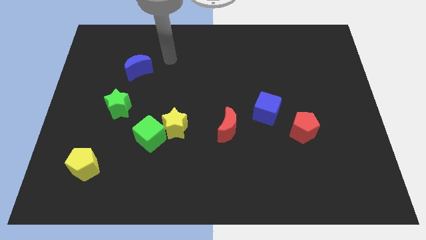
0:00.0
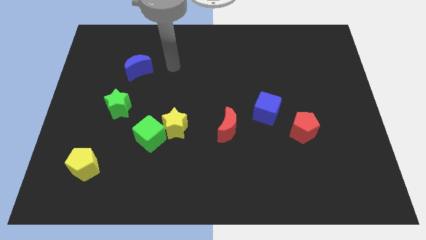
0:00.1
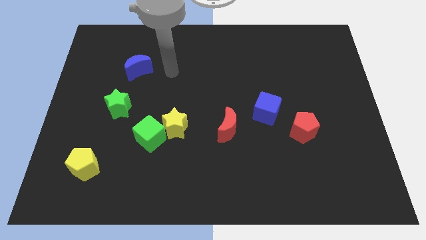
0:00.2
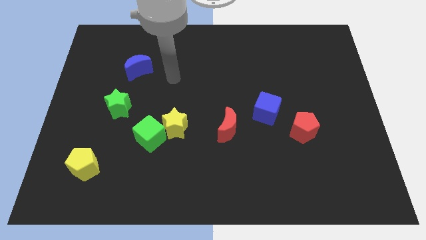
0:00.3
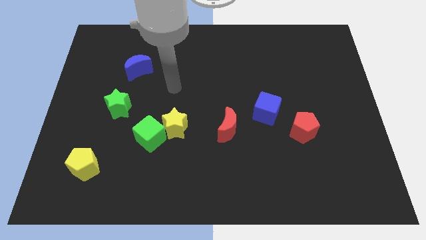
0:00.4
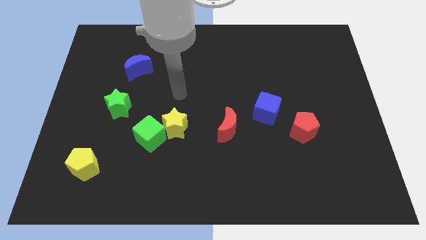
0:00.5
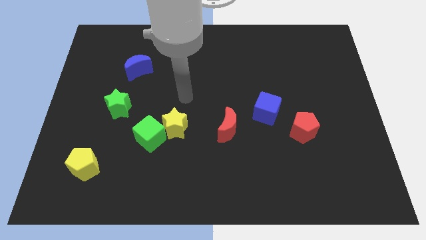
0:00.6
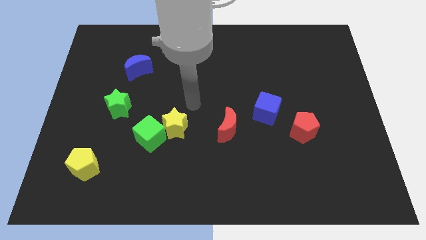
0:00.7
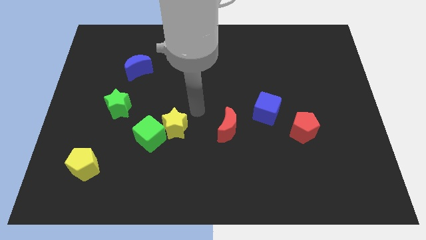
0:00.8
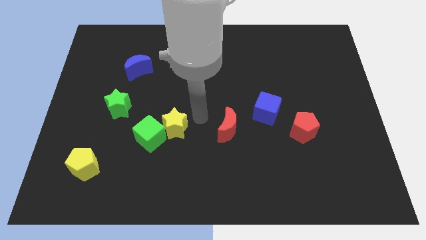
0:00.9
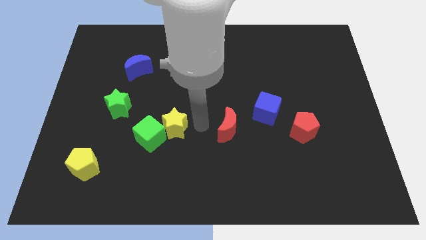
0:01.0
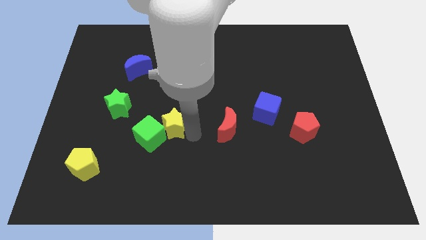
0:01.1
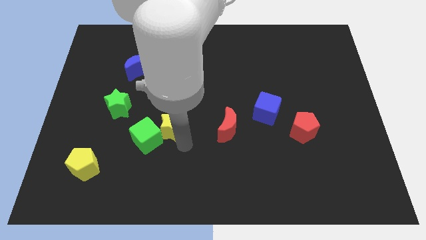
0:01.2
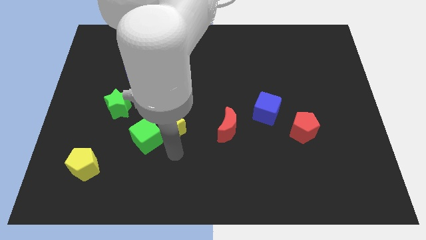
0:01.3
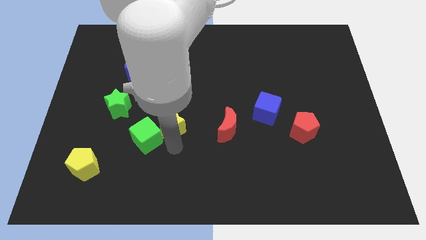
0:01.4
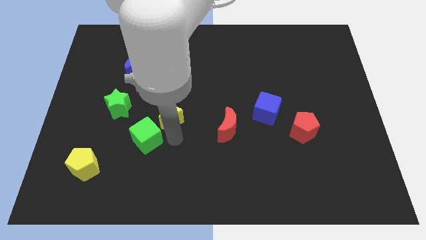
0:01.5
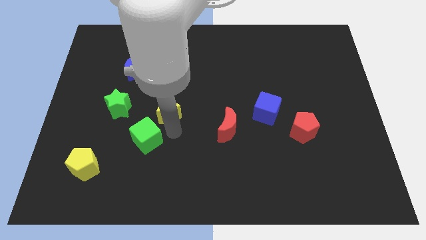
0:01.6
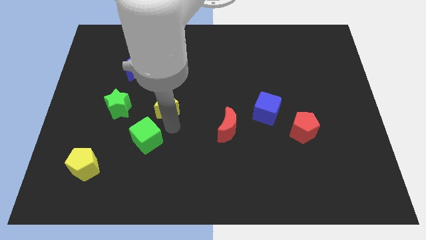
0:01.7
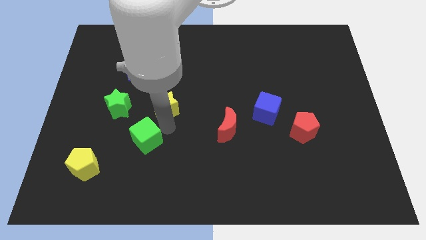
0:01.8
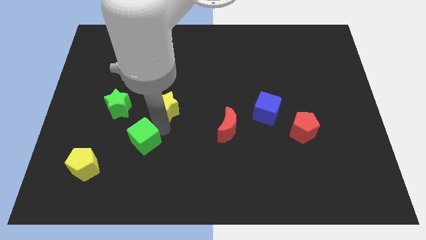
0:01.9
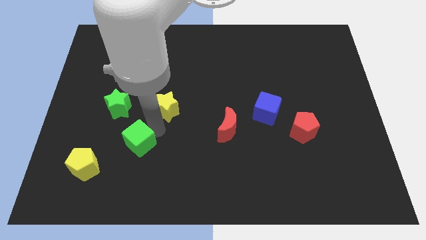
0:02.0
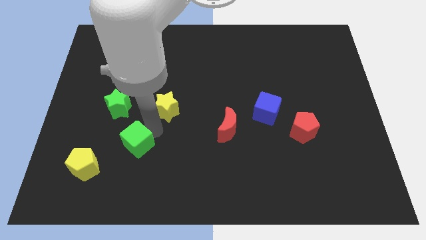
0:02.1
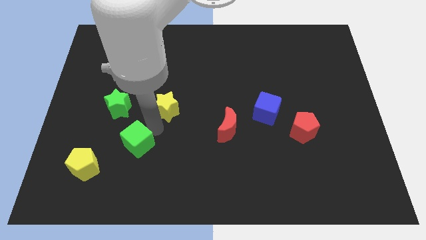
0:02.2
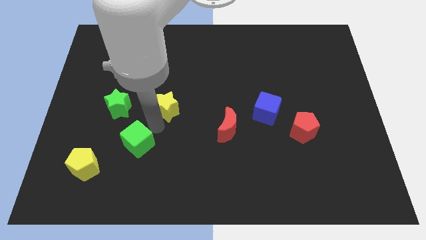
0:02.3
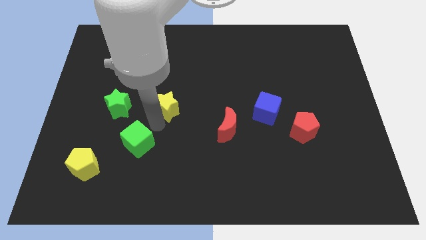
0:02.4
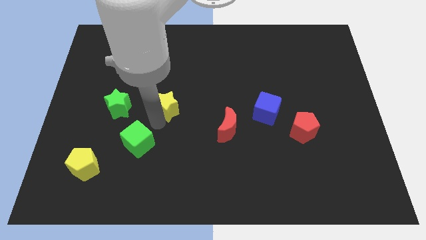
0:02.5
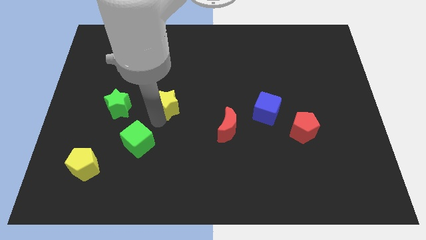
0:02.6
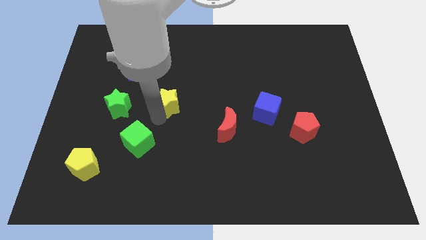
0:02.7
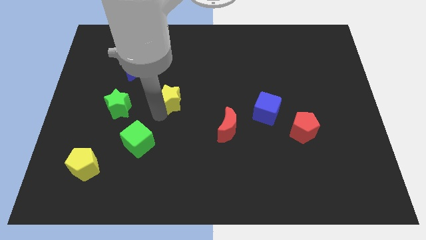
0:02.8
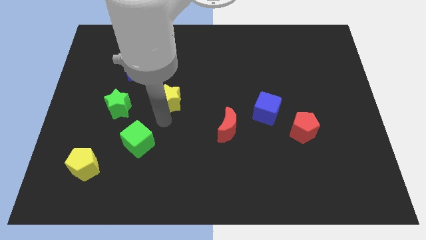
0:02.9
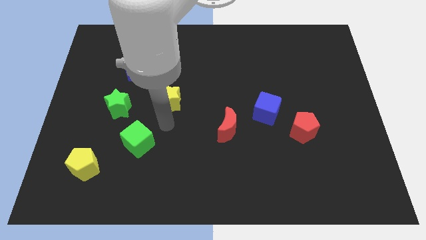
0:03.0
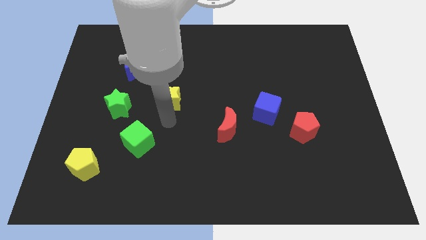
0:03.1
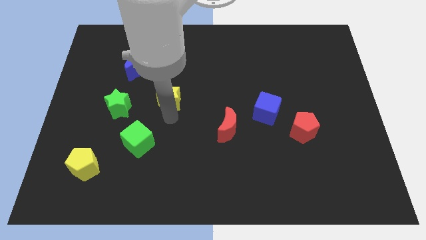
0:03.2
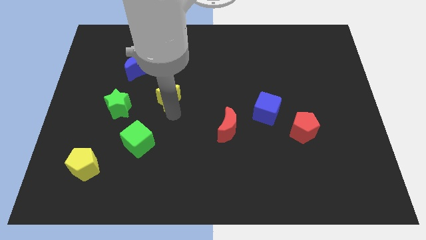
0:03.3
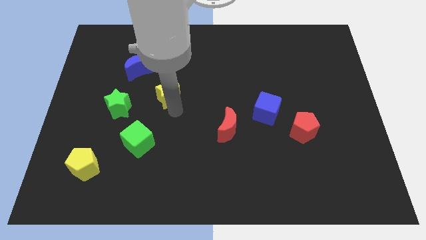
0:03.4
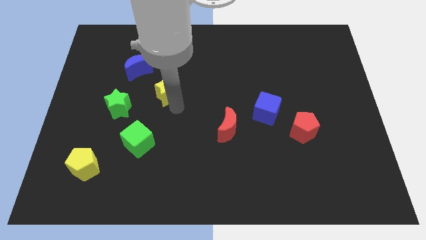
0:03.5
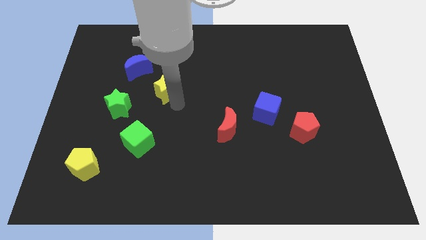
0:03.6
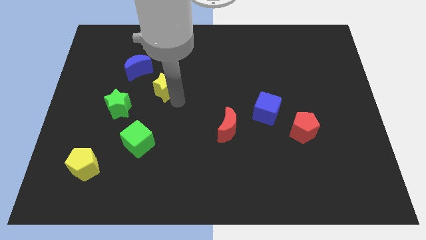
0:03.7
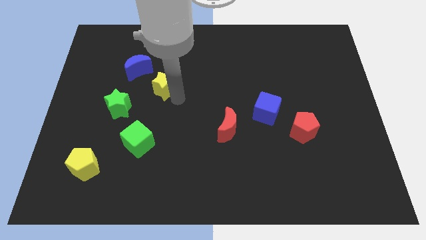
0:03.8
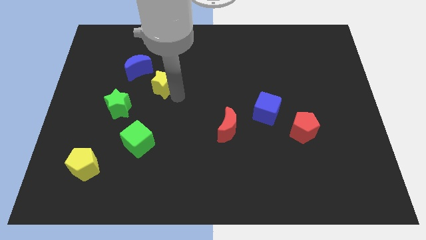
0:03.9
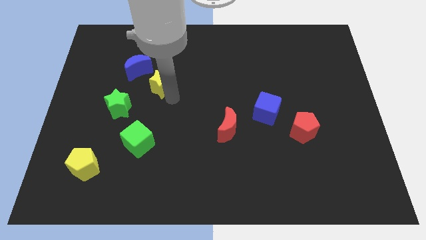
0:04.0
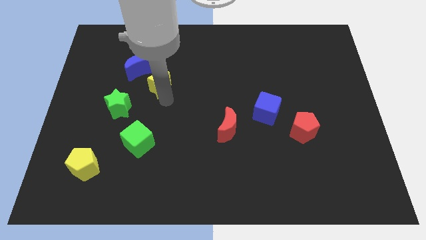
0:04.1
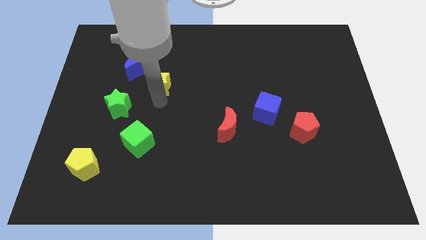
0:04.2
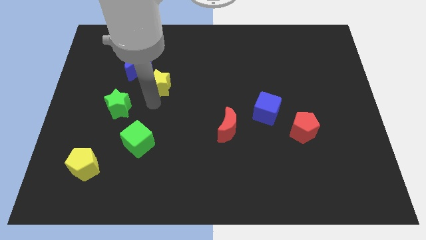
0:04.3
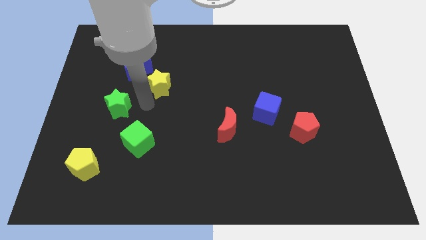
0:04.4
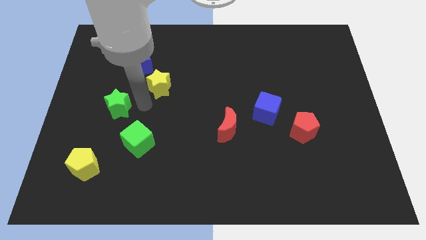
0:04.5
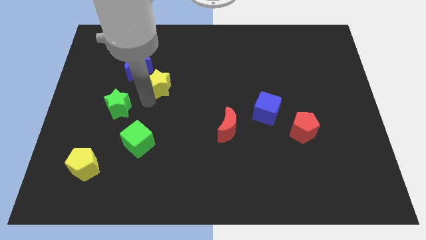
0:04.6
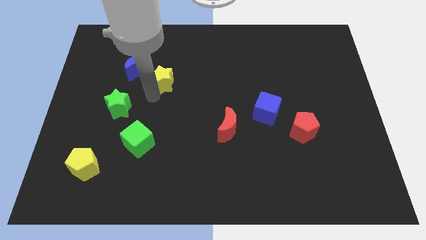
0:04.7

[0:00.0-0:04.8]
put the yellow star to the right side of the blue moon

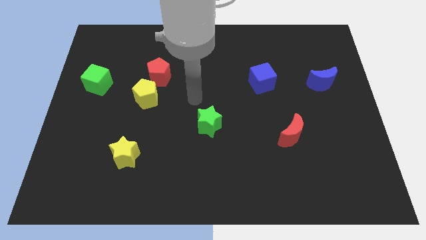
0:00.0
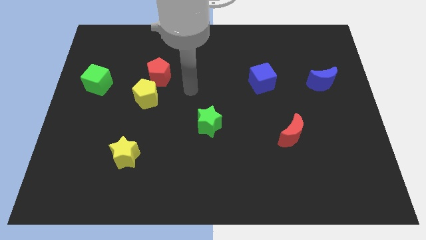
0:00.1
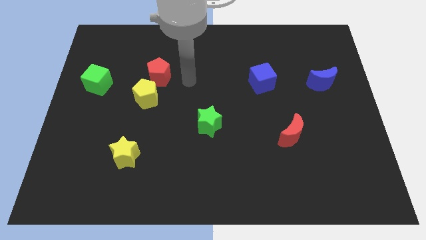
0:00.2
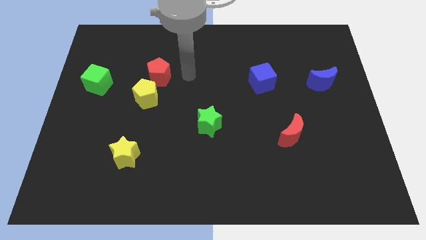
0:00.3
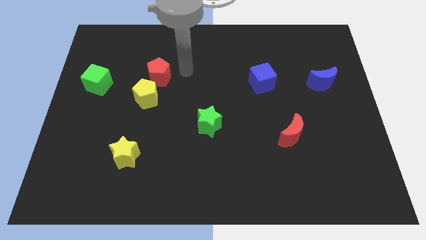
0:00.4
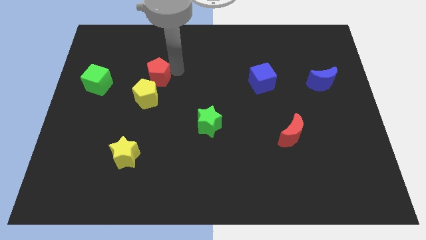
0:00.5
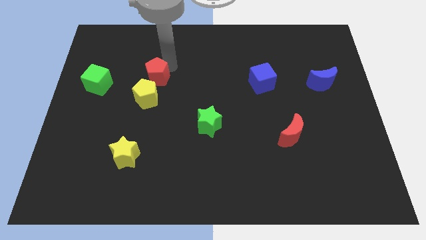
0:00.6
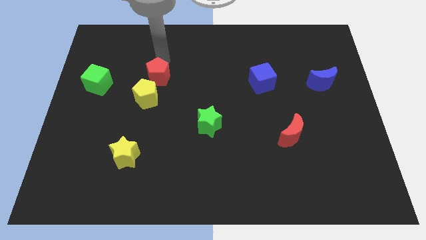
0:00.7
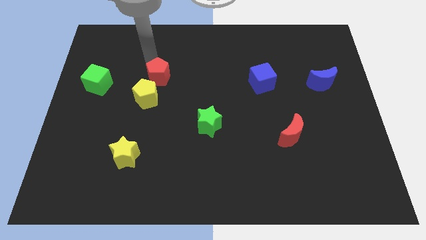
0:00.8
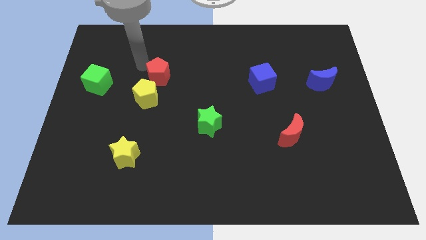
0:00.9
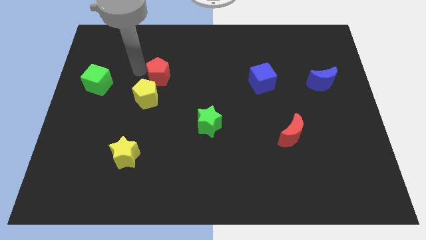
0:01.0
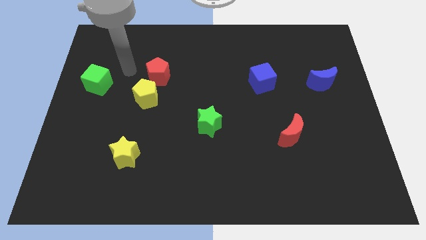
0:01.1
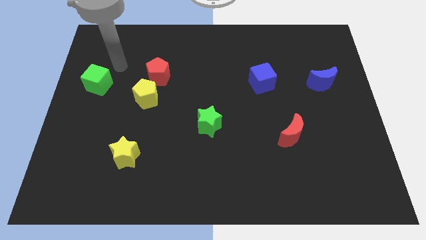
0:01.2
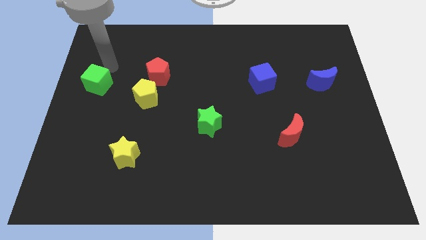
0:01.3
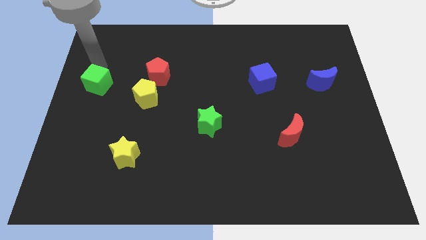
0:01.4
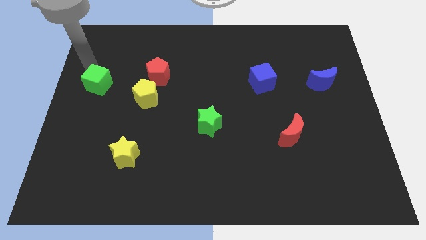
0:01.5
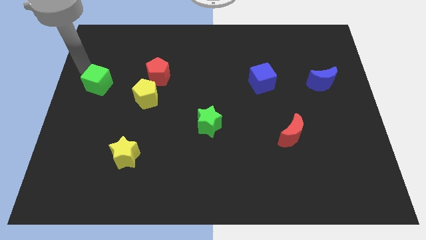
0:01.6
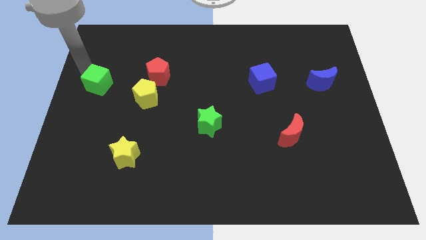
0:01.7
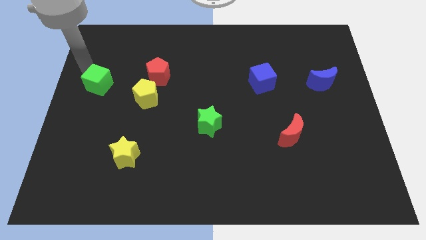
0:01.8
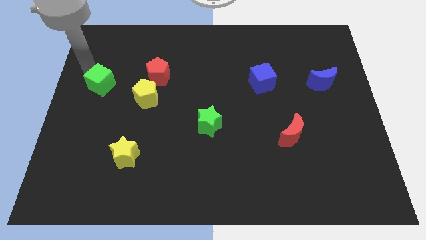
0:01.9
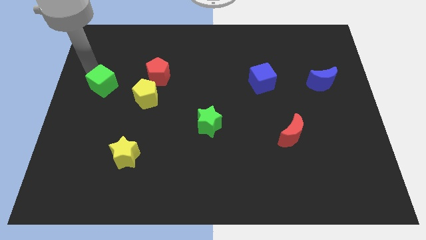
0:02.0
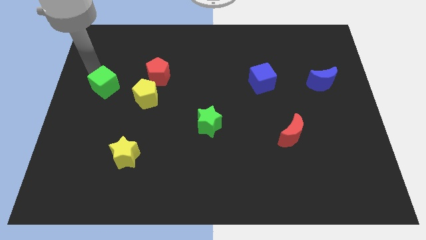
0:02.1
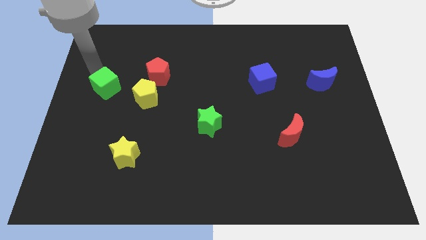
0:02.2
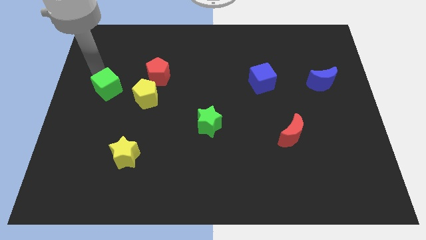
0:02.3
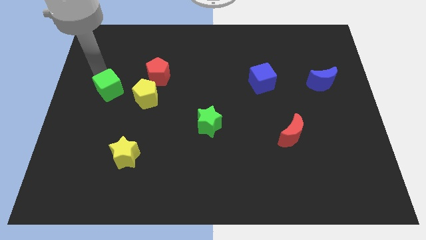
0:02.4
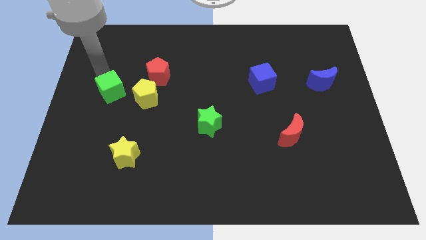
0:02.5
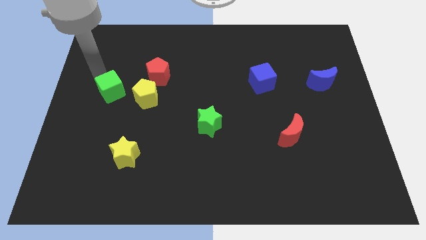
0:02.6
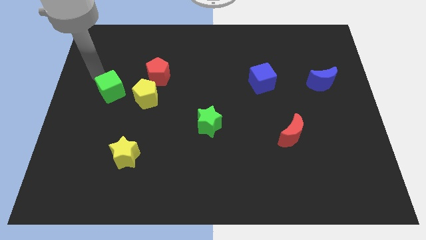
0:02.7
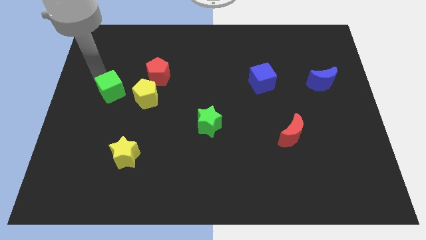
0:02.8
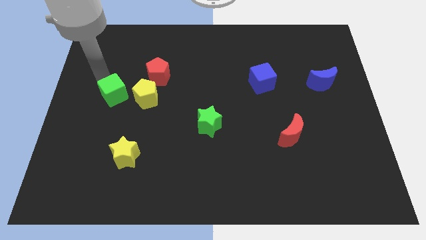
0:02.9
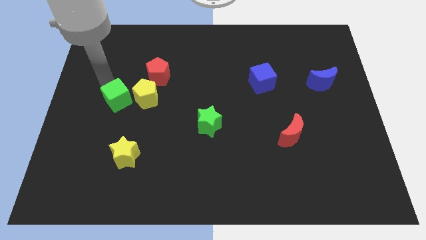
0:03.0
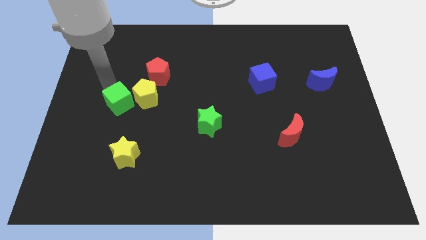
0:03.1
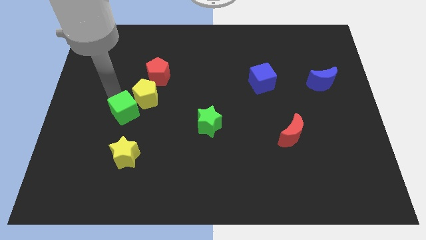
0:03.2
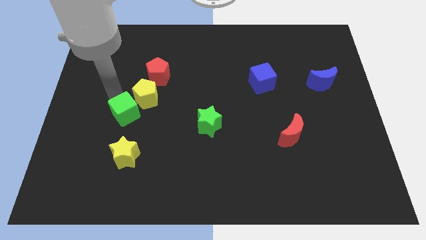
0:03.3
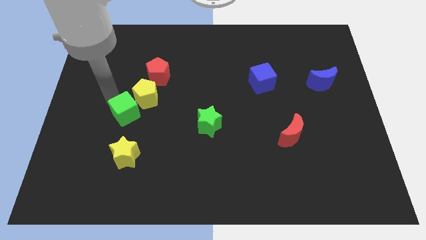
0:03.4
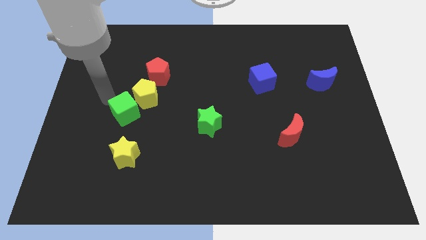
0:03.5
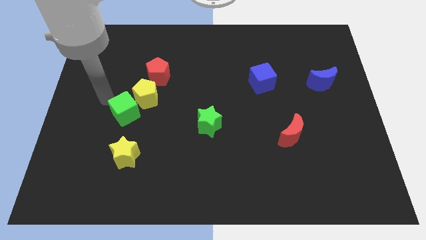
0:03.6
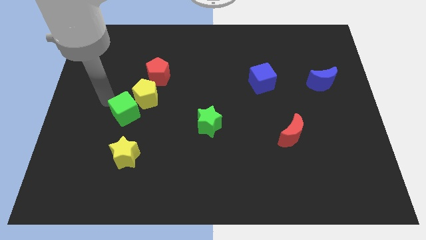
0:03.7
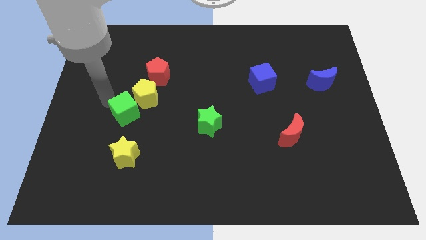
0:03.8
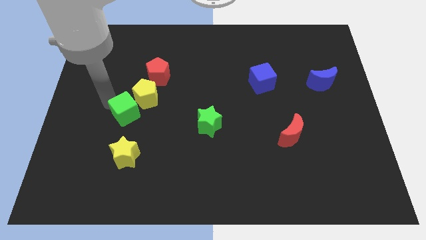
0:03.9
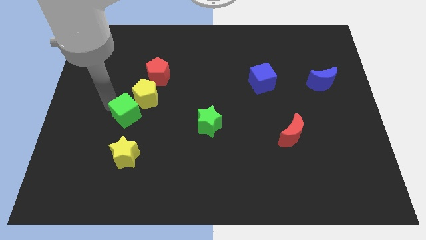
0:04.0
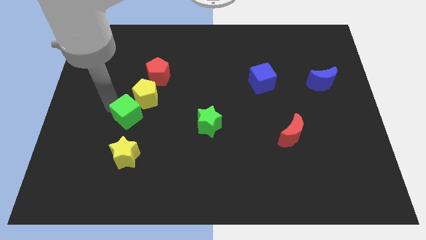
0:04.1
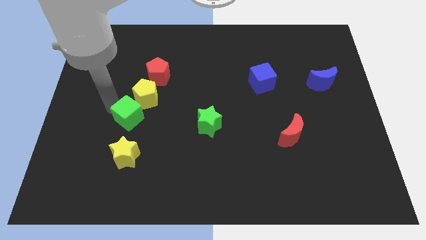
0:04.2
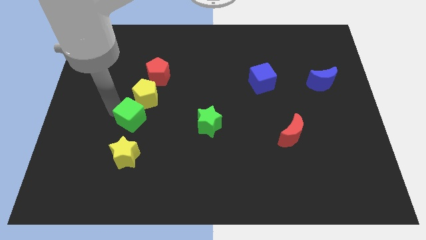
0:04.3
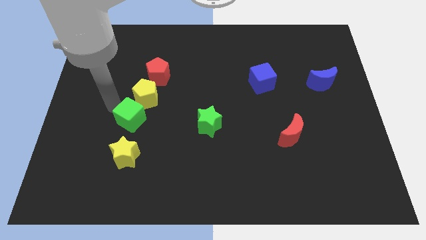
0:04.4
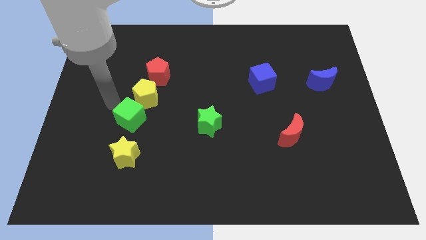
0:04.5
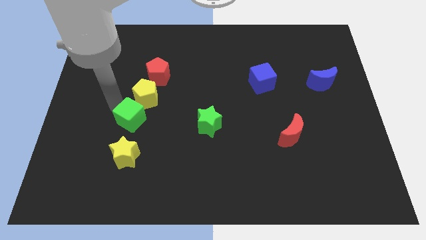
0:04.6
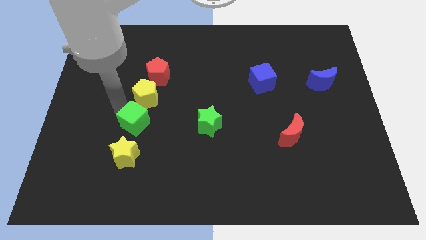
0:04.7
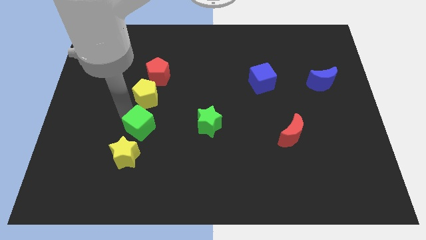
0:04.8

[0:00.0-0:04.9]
put the green cube to the top right side of the yellow star
